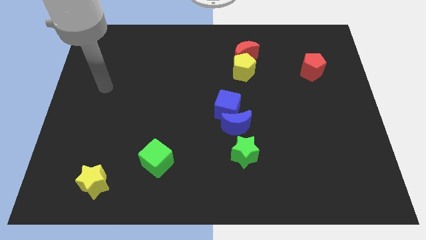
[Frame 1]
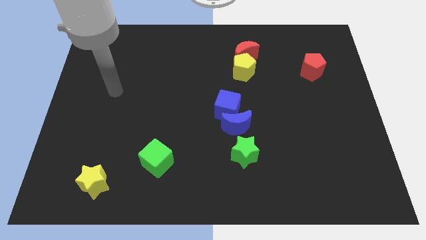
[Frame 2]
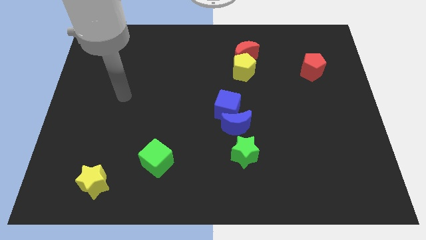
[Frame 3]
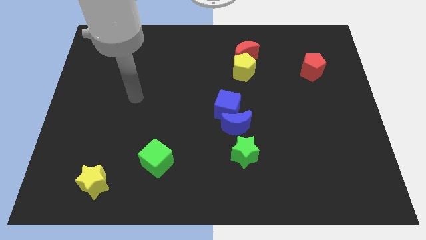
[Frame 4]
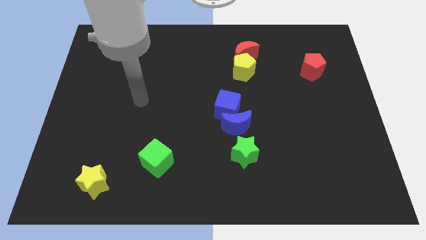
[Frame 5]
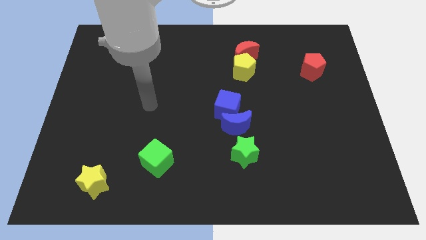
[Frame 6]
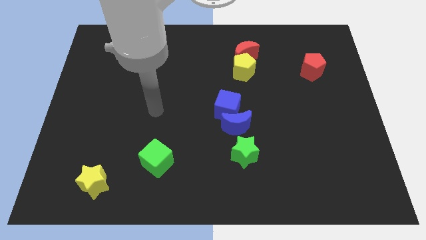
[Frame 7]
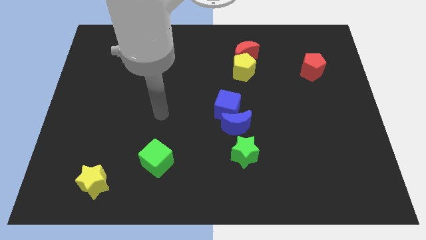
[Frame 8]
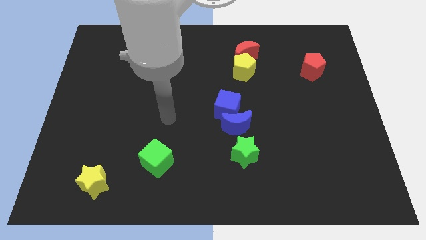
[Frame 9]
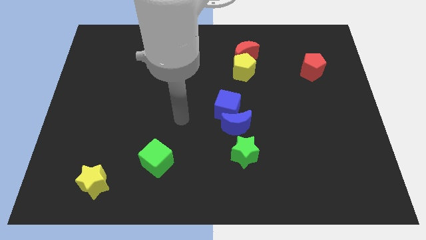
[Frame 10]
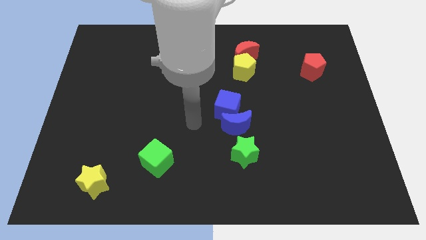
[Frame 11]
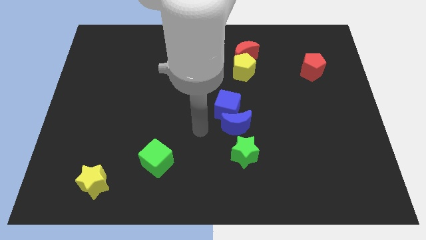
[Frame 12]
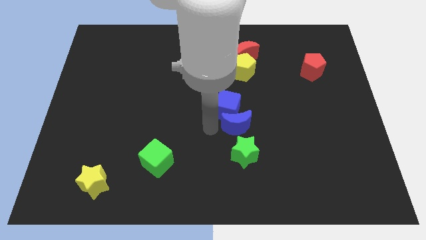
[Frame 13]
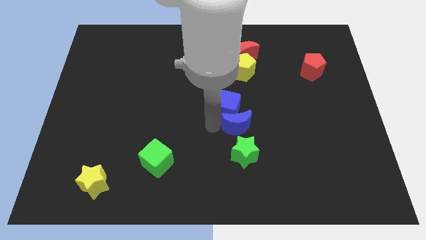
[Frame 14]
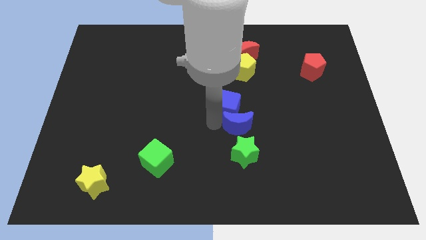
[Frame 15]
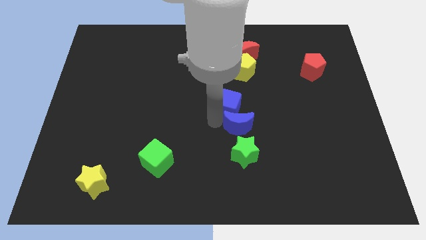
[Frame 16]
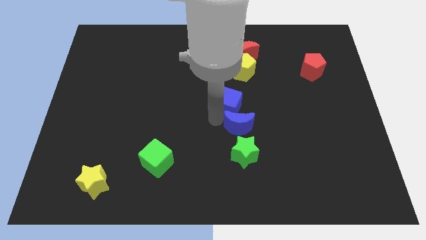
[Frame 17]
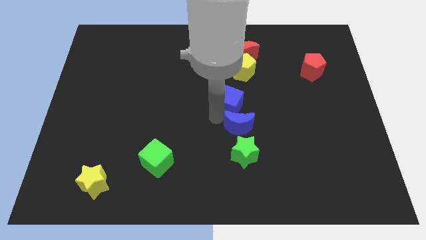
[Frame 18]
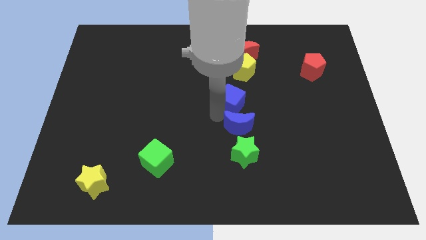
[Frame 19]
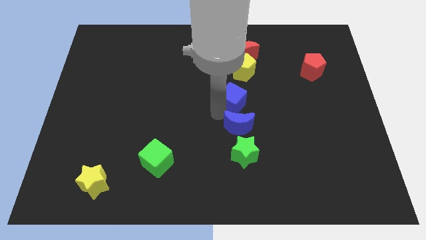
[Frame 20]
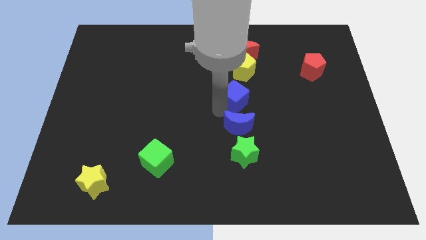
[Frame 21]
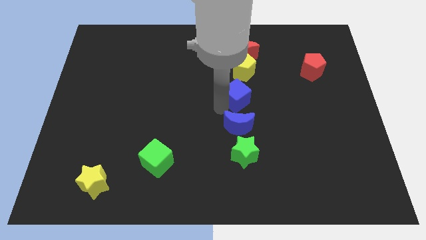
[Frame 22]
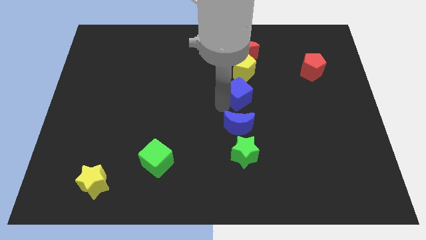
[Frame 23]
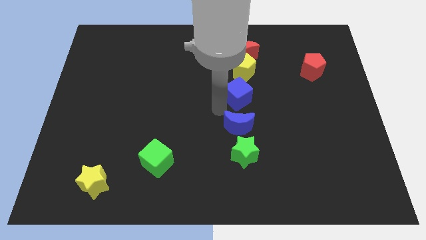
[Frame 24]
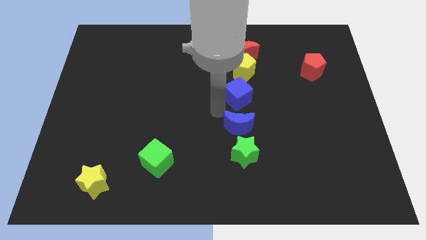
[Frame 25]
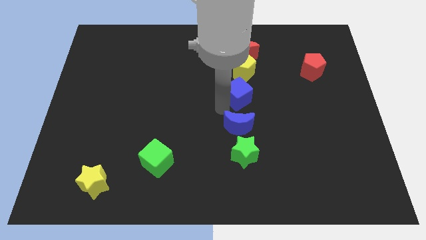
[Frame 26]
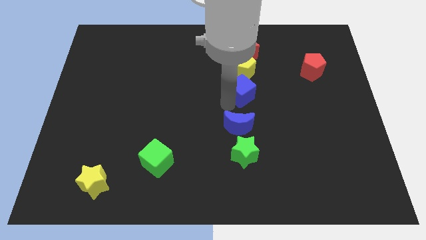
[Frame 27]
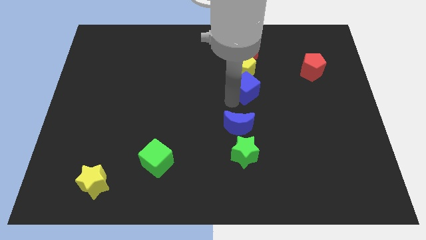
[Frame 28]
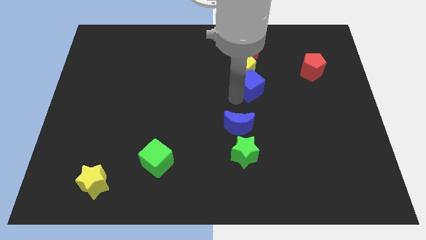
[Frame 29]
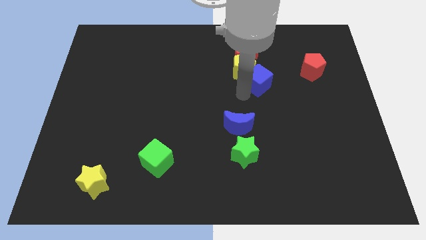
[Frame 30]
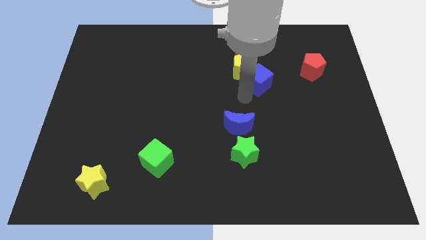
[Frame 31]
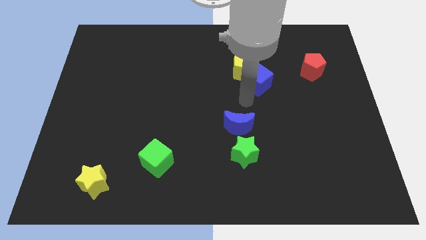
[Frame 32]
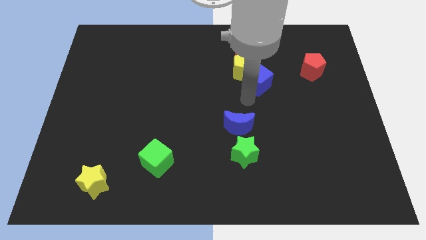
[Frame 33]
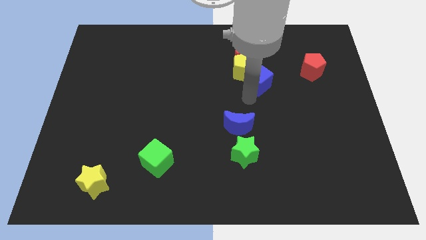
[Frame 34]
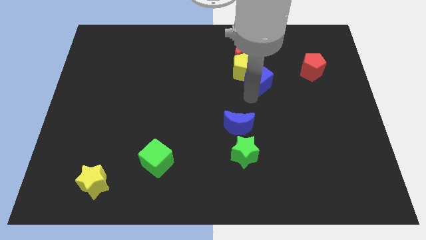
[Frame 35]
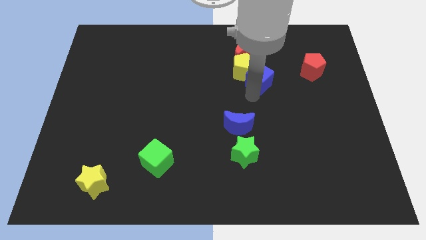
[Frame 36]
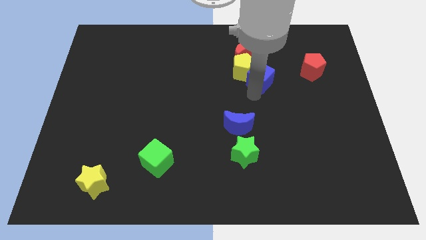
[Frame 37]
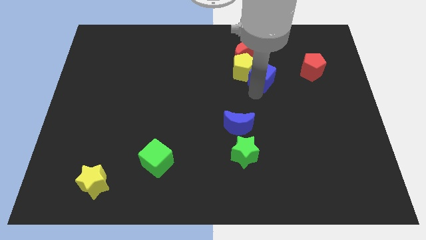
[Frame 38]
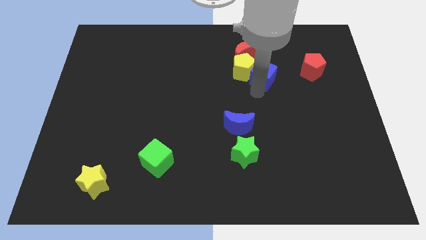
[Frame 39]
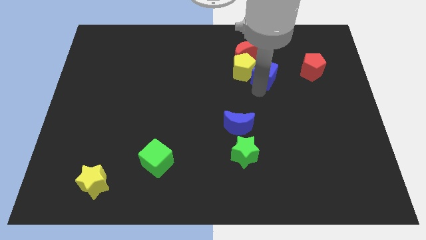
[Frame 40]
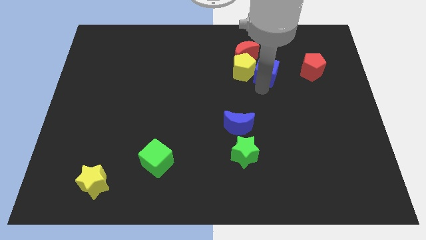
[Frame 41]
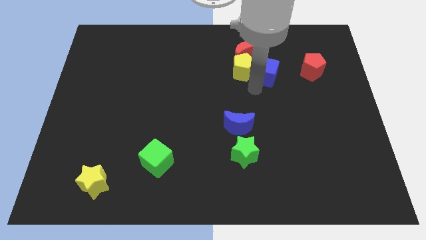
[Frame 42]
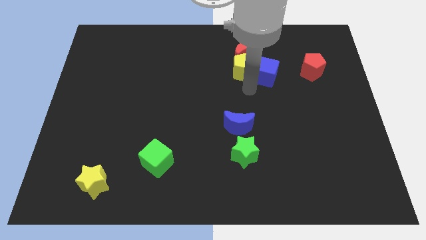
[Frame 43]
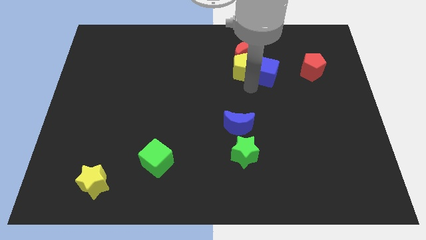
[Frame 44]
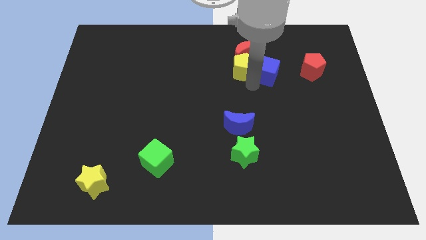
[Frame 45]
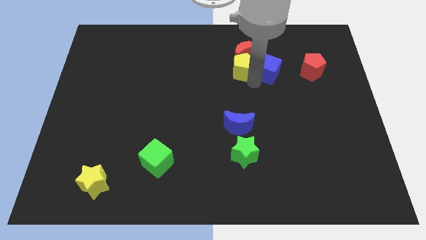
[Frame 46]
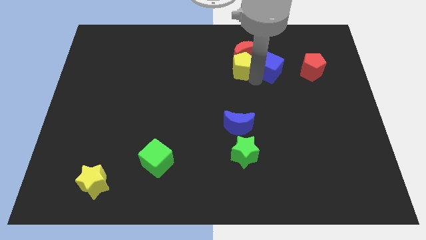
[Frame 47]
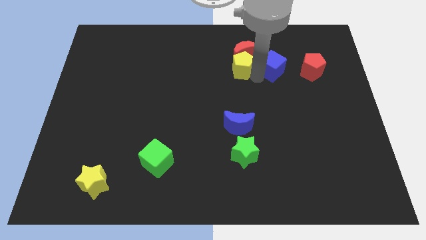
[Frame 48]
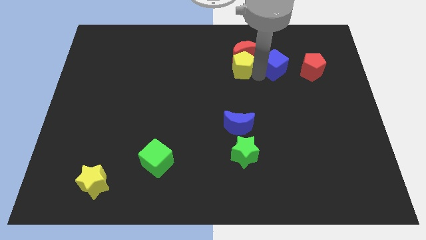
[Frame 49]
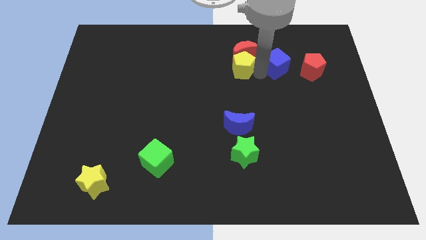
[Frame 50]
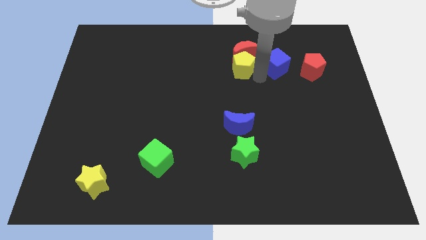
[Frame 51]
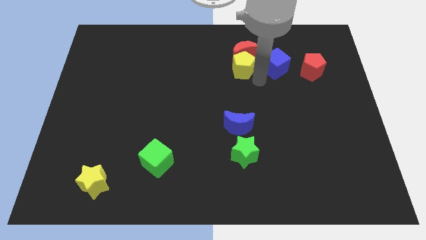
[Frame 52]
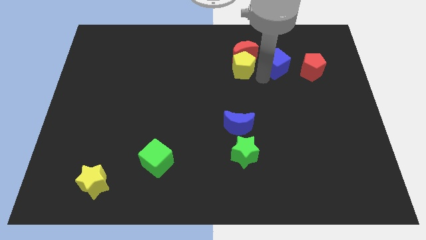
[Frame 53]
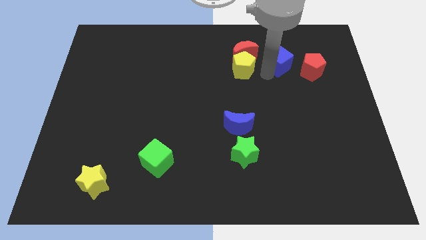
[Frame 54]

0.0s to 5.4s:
put the blue cube to the top left of the red pentagon

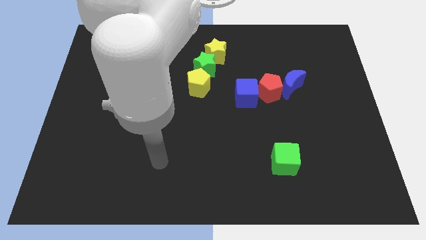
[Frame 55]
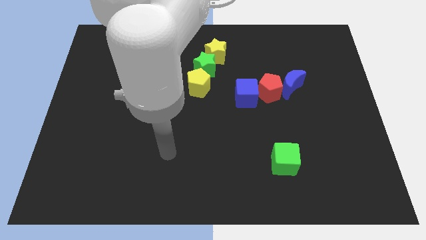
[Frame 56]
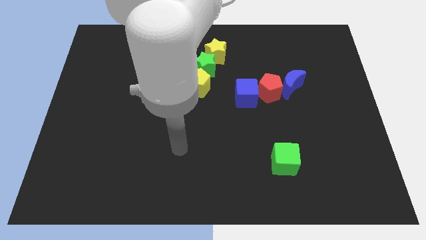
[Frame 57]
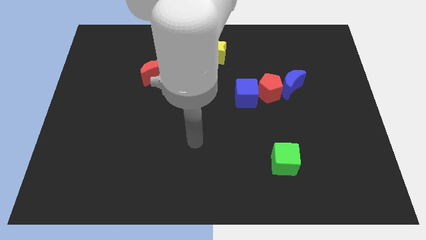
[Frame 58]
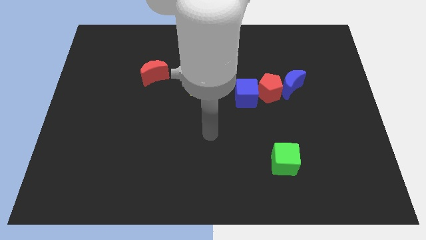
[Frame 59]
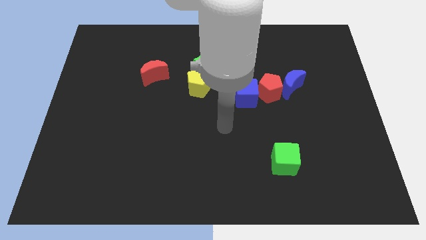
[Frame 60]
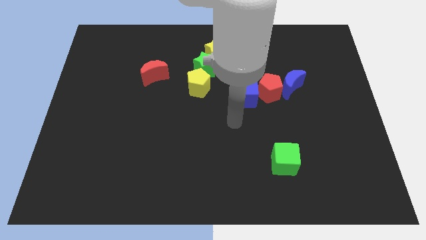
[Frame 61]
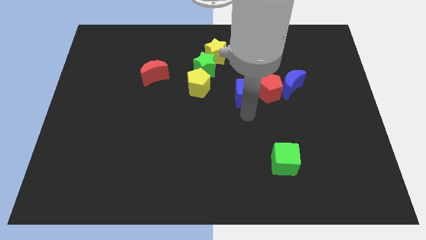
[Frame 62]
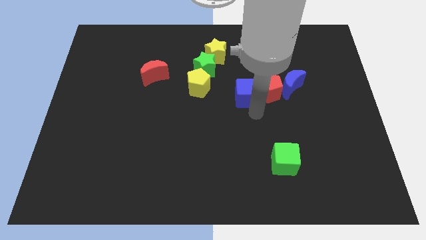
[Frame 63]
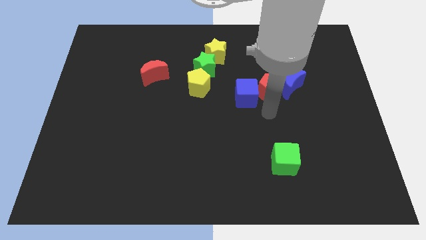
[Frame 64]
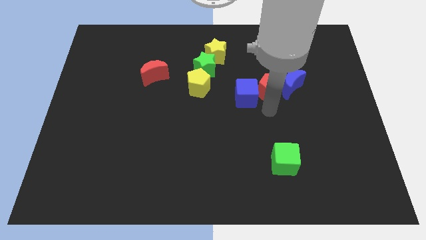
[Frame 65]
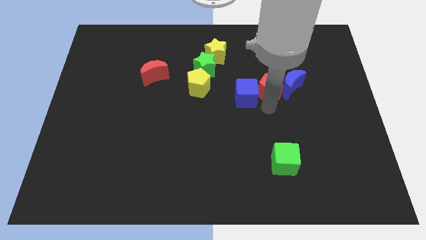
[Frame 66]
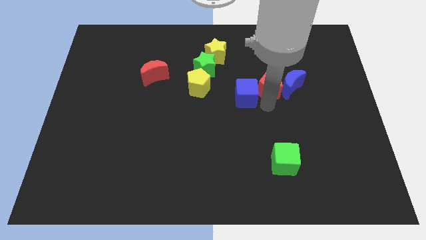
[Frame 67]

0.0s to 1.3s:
slide the red pentagon diagonally up and to the left of the blue moon

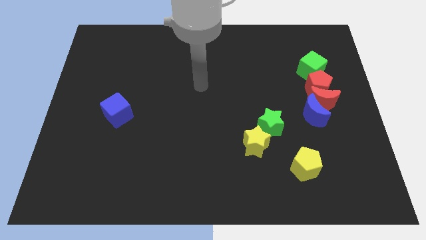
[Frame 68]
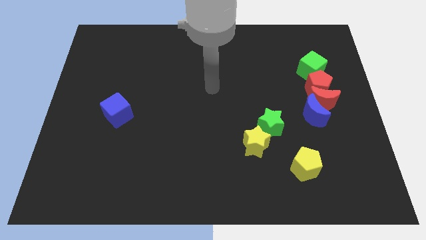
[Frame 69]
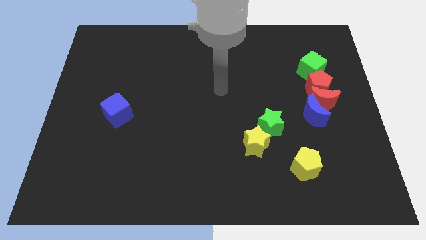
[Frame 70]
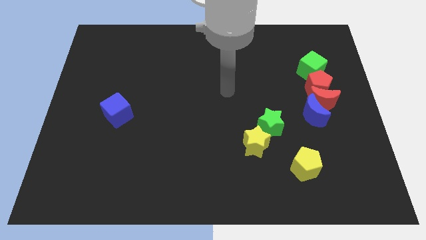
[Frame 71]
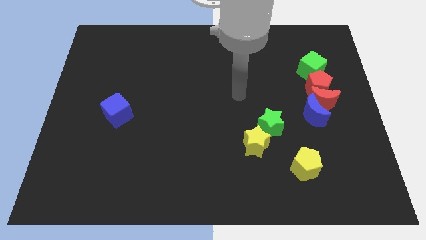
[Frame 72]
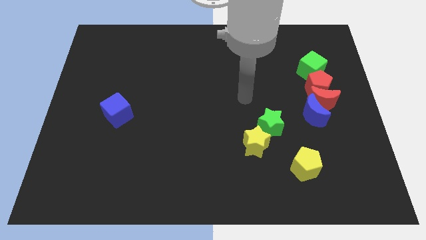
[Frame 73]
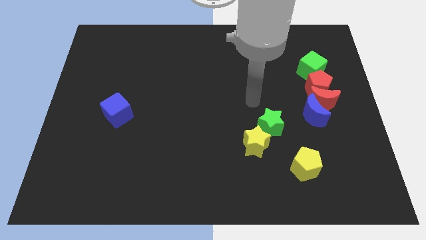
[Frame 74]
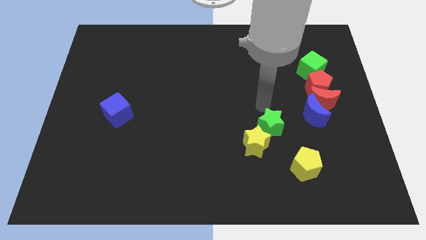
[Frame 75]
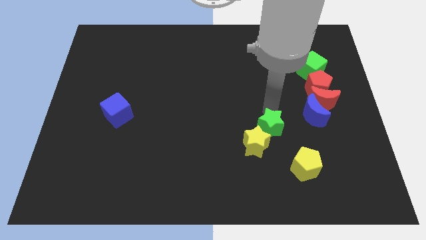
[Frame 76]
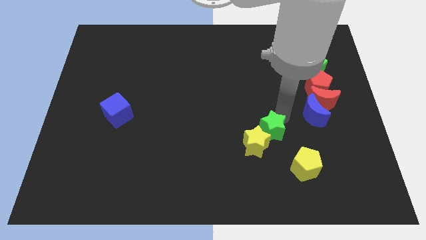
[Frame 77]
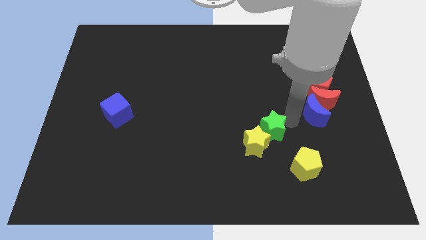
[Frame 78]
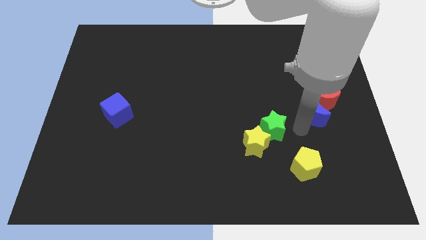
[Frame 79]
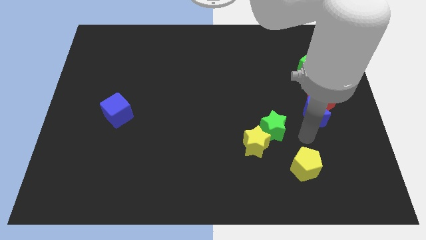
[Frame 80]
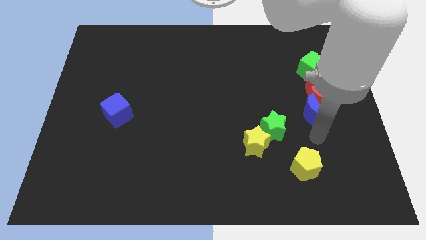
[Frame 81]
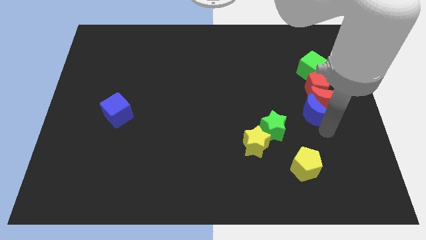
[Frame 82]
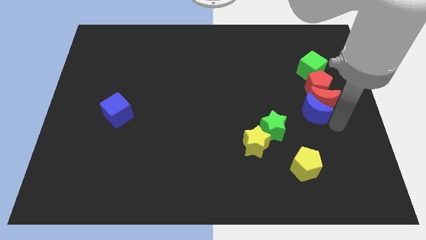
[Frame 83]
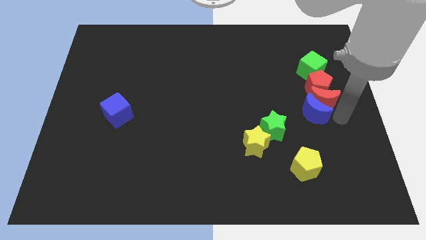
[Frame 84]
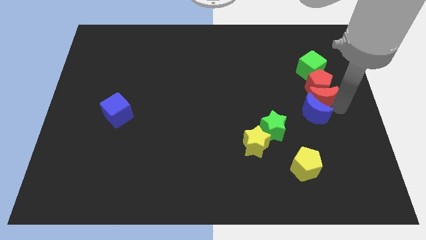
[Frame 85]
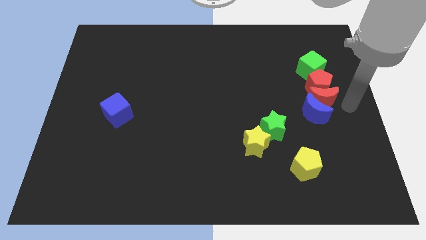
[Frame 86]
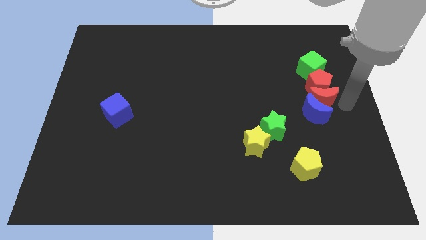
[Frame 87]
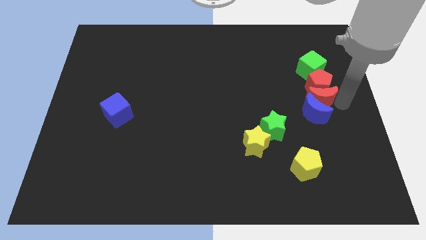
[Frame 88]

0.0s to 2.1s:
slide the red moon to the top left of the blue moon
